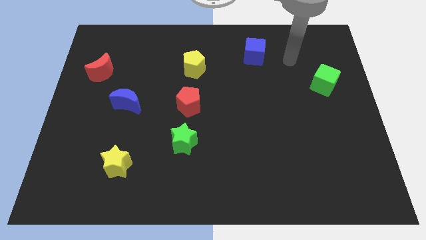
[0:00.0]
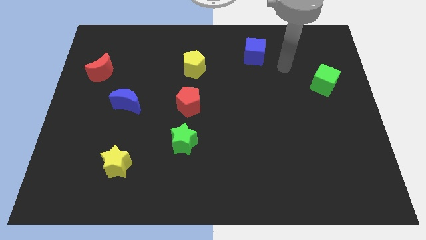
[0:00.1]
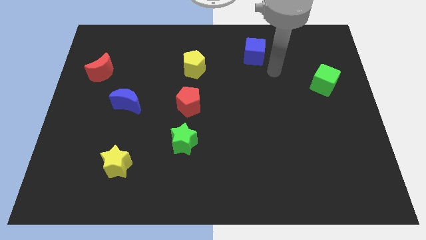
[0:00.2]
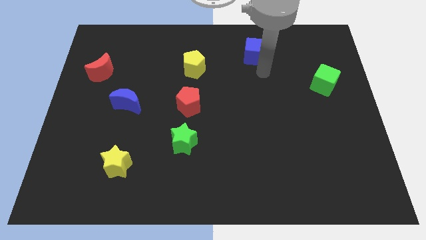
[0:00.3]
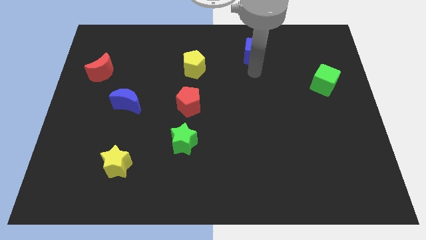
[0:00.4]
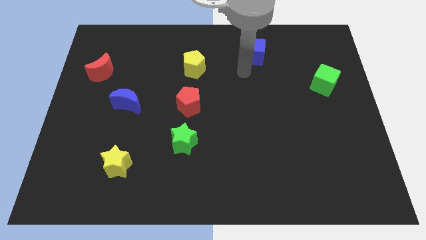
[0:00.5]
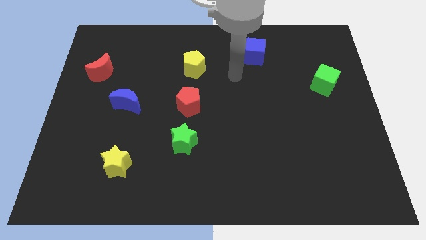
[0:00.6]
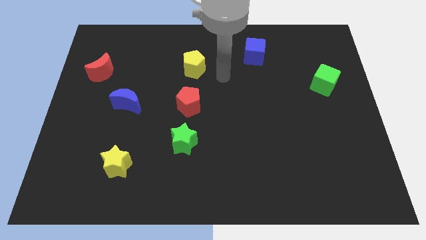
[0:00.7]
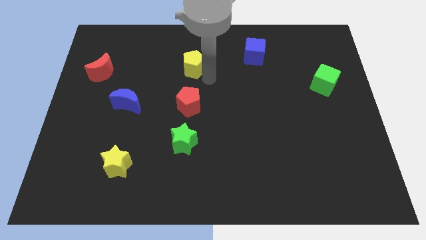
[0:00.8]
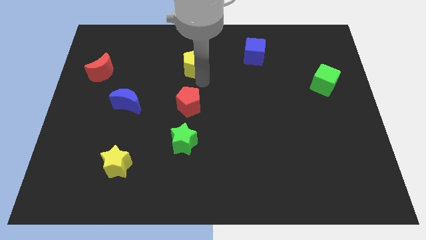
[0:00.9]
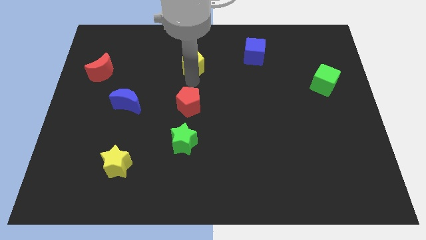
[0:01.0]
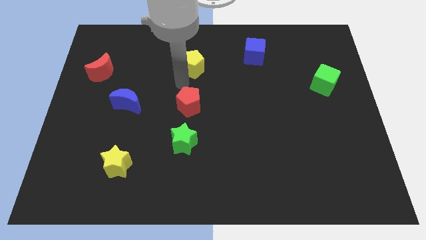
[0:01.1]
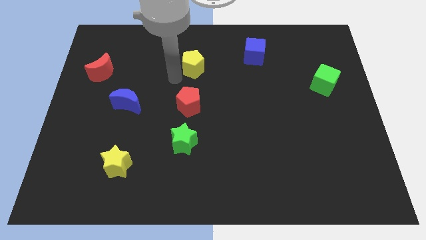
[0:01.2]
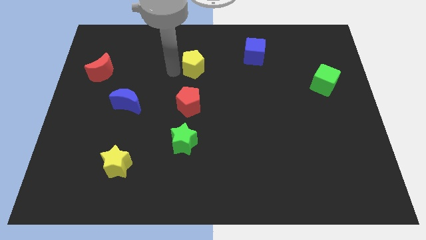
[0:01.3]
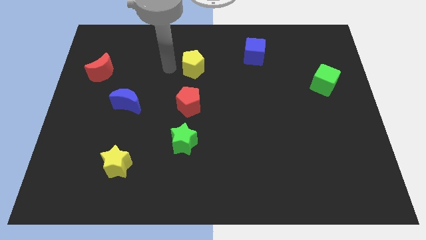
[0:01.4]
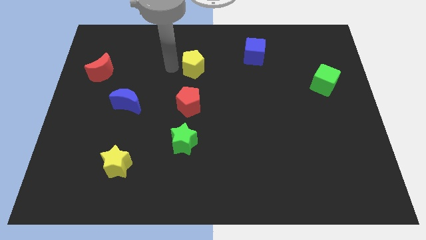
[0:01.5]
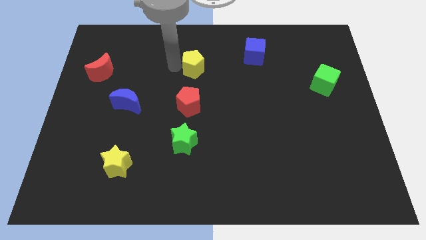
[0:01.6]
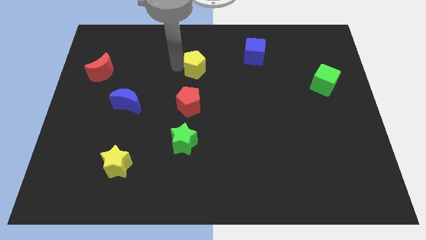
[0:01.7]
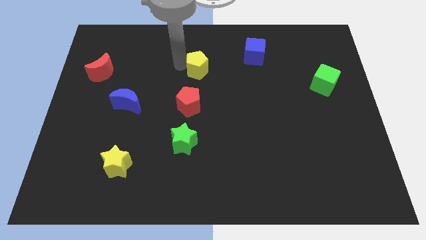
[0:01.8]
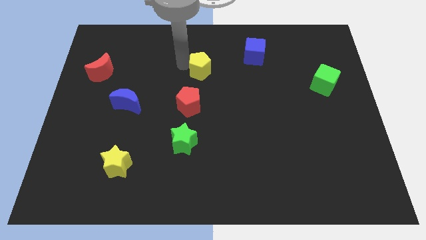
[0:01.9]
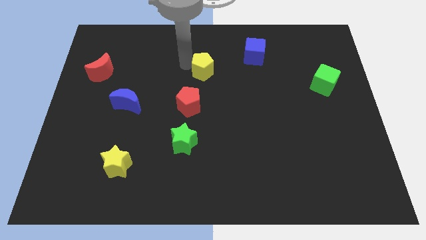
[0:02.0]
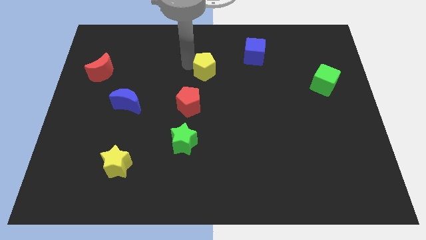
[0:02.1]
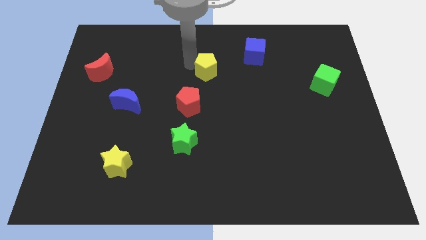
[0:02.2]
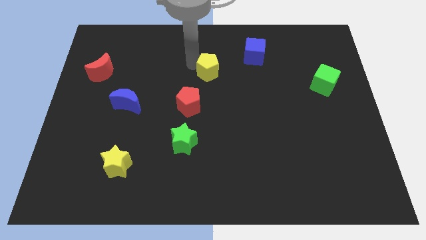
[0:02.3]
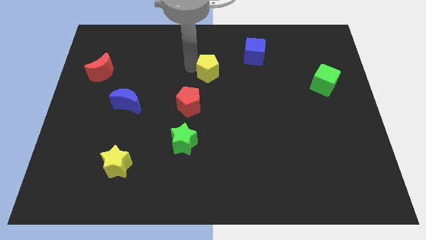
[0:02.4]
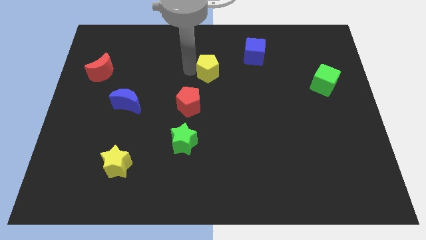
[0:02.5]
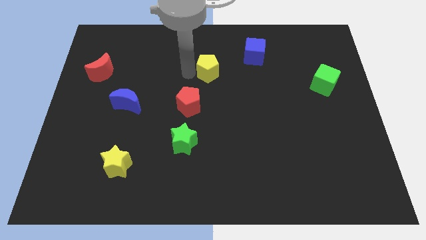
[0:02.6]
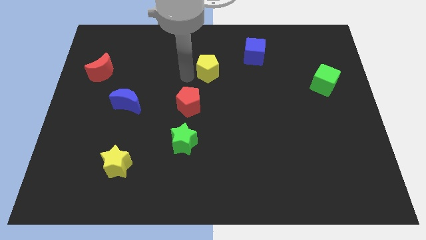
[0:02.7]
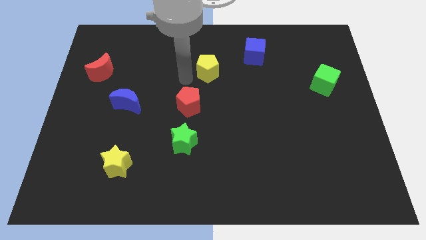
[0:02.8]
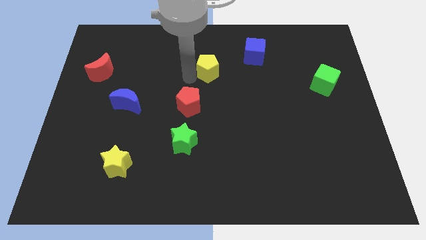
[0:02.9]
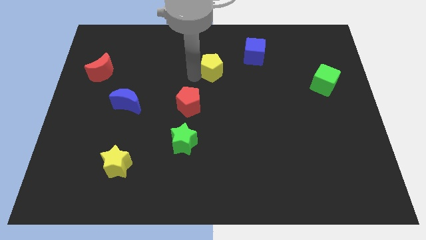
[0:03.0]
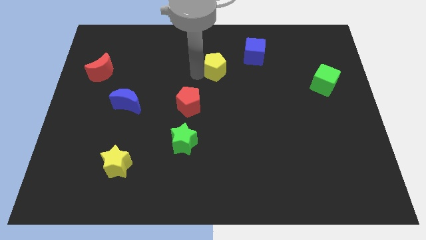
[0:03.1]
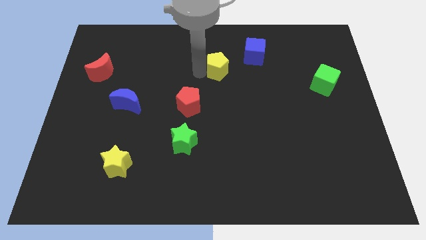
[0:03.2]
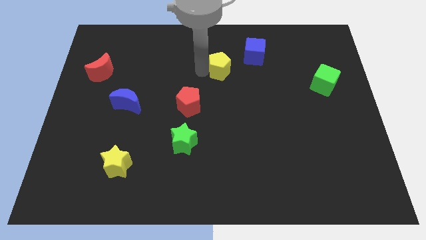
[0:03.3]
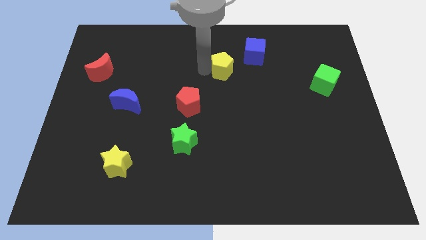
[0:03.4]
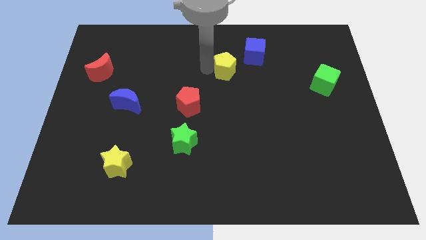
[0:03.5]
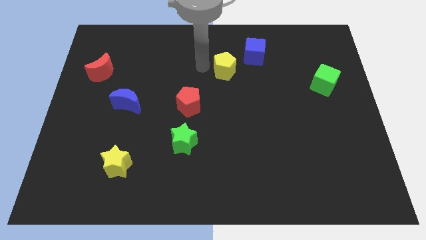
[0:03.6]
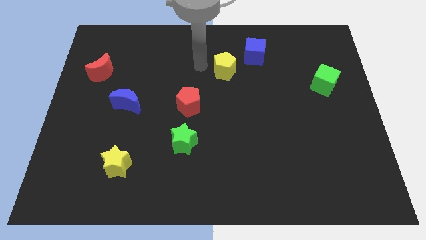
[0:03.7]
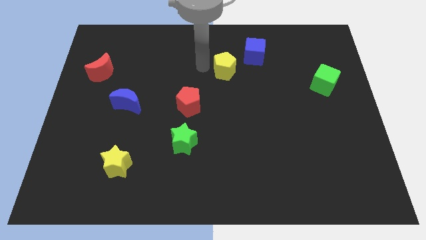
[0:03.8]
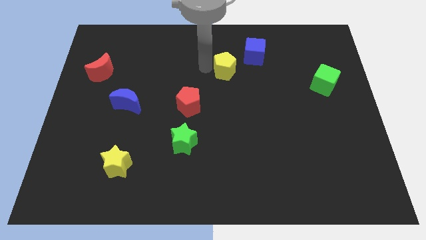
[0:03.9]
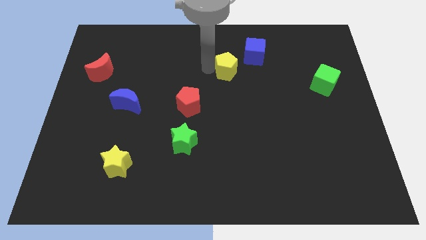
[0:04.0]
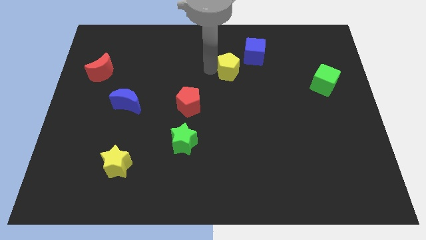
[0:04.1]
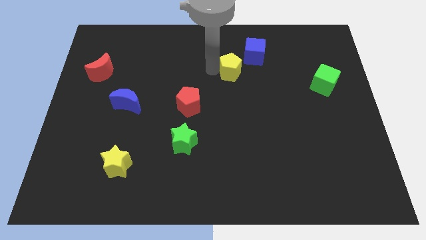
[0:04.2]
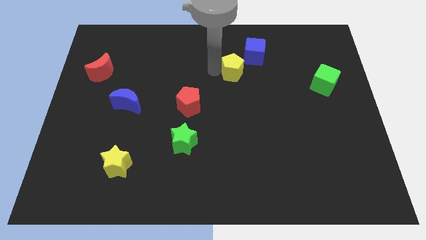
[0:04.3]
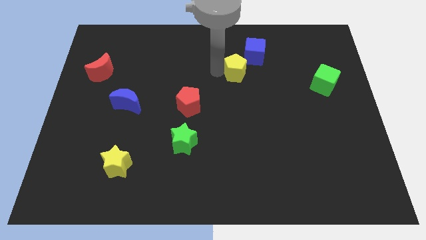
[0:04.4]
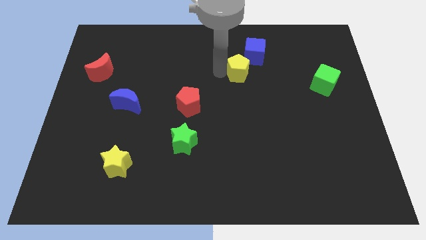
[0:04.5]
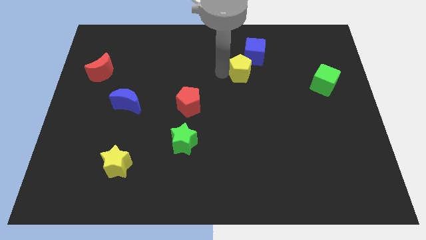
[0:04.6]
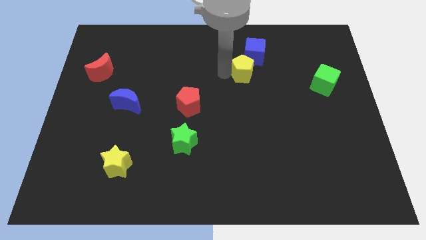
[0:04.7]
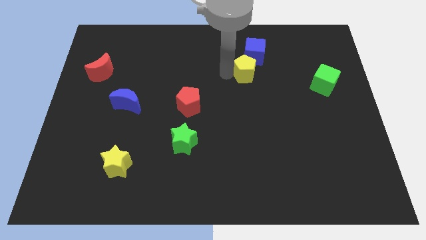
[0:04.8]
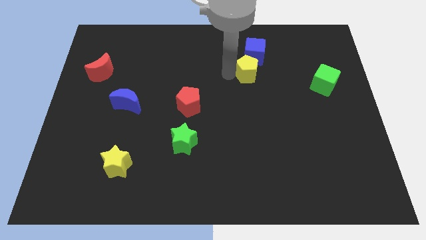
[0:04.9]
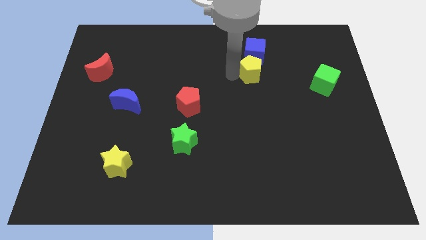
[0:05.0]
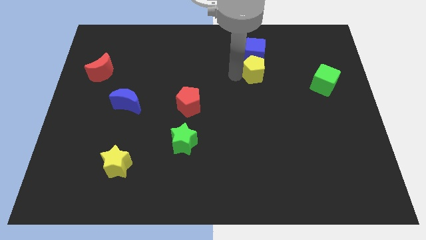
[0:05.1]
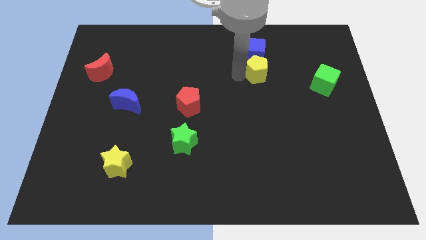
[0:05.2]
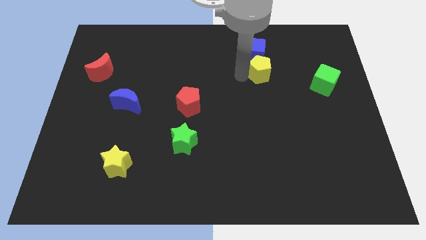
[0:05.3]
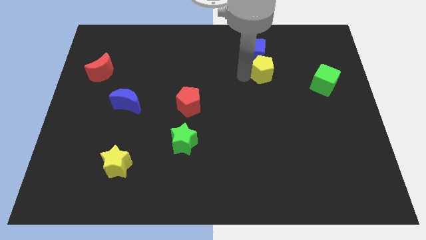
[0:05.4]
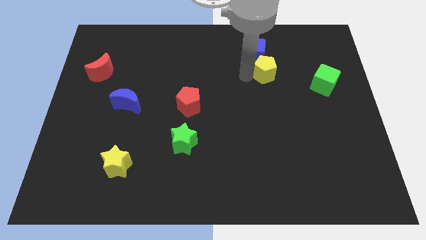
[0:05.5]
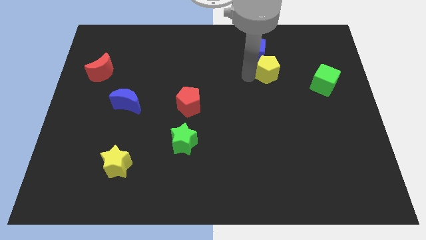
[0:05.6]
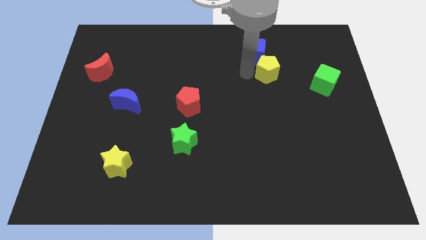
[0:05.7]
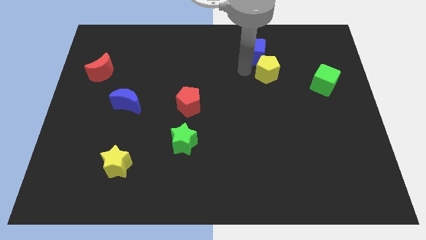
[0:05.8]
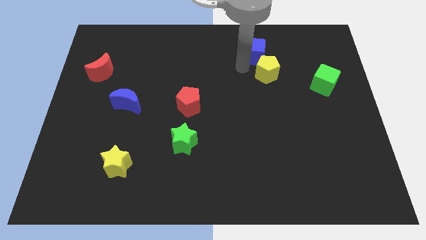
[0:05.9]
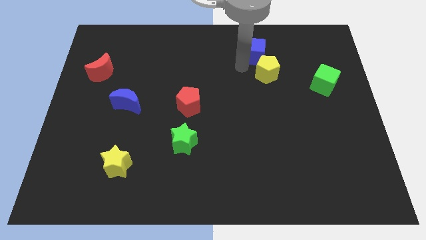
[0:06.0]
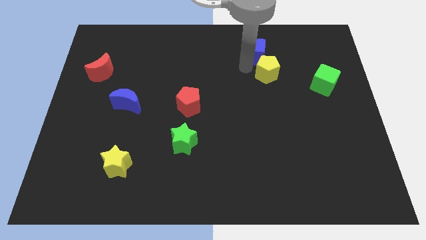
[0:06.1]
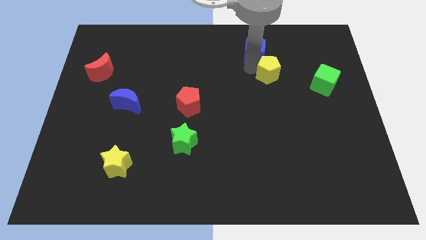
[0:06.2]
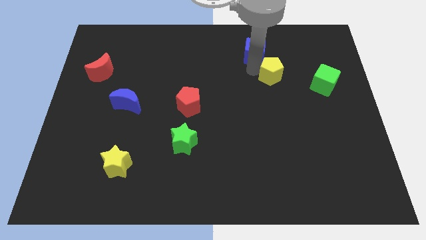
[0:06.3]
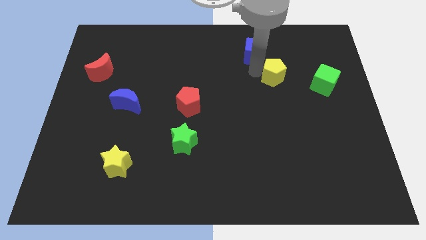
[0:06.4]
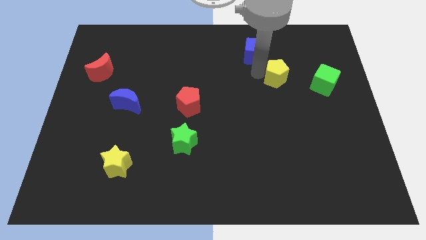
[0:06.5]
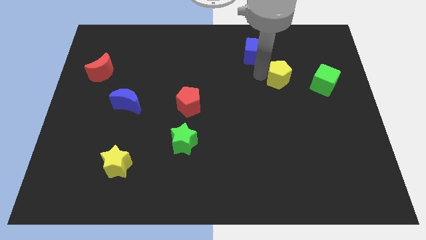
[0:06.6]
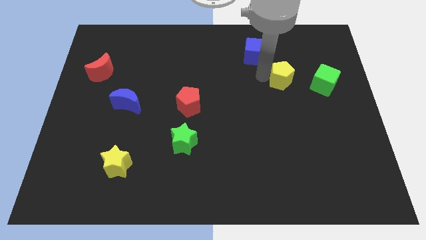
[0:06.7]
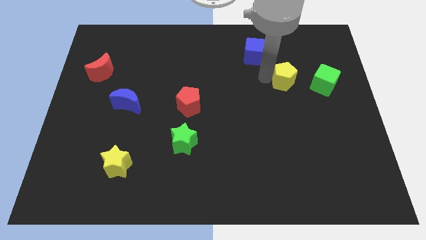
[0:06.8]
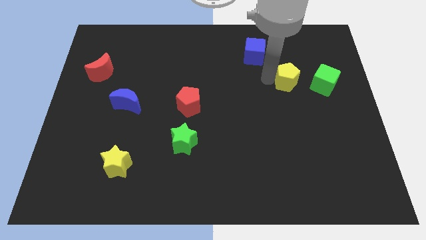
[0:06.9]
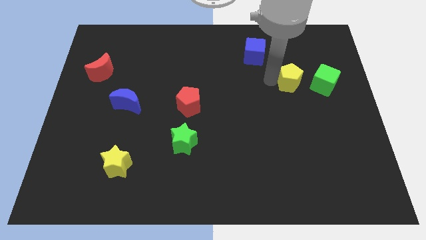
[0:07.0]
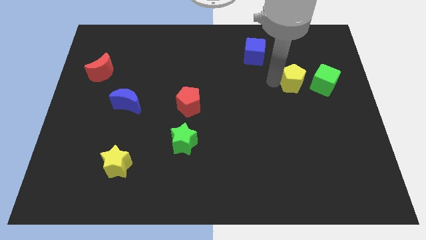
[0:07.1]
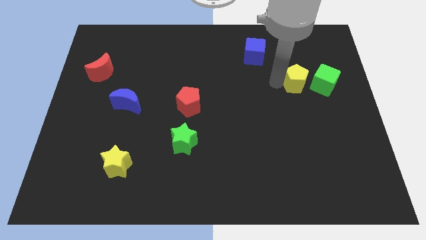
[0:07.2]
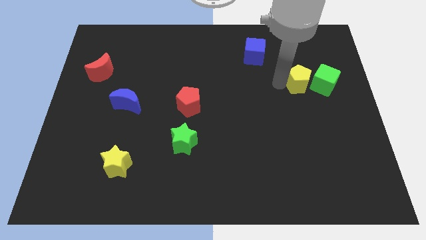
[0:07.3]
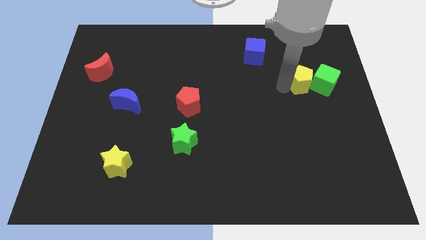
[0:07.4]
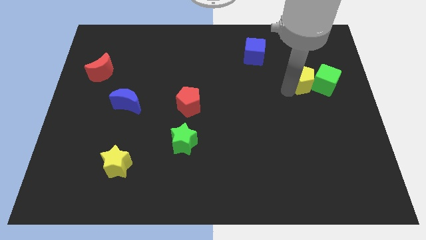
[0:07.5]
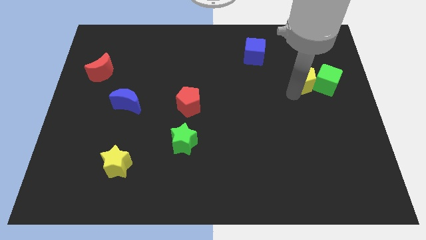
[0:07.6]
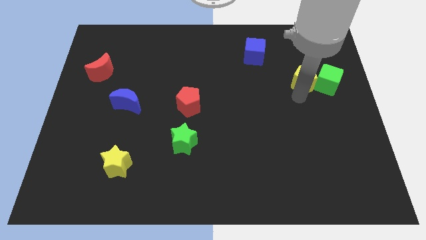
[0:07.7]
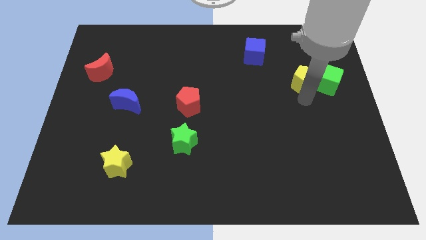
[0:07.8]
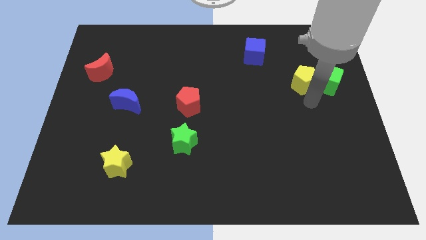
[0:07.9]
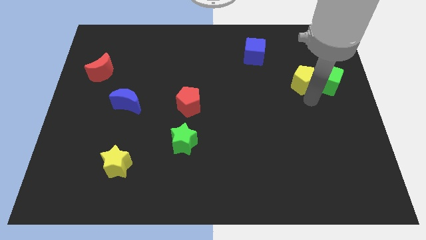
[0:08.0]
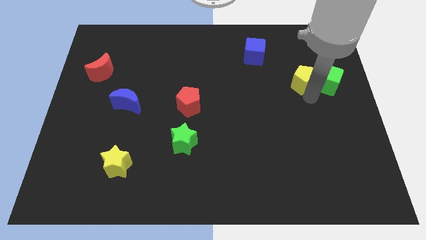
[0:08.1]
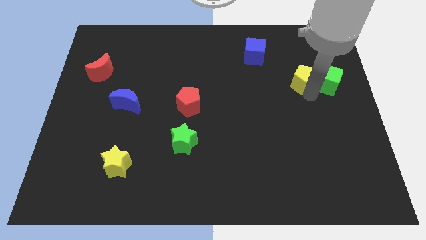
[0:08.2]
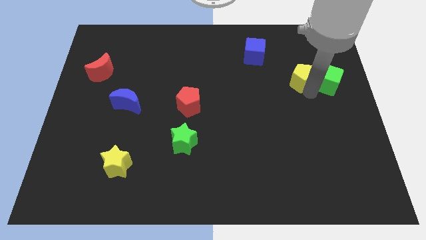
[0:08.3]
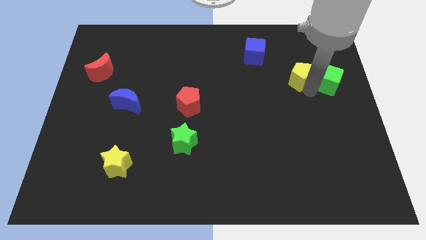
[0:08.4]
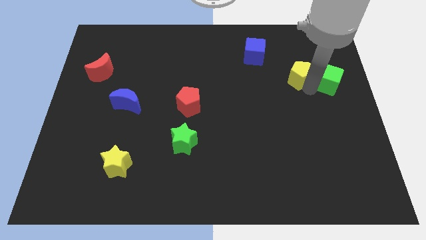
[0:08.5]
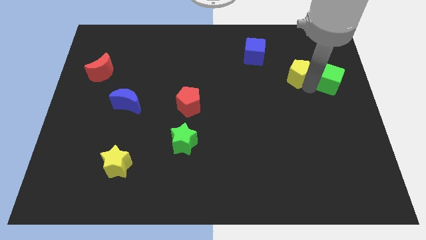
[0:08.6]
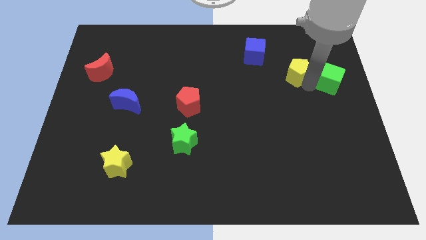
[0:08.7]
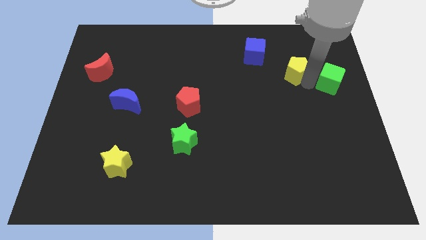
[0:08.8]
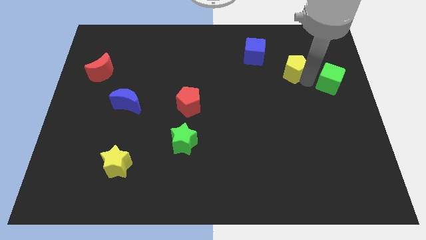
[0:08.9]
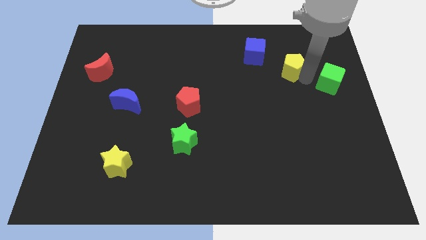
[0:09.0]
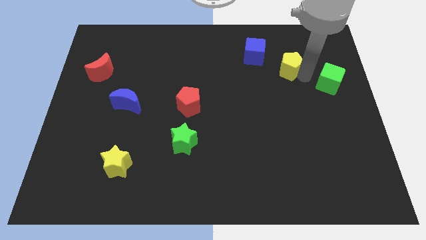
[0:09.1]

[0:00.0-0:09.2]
push the yellow pentagon to the right of the blue cube
